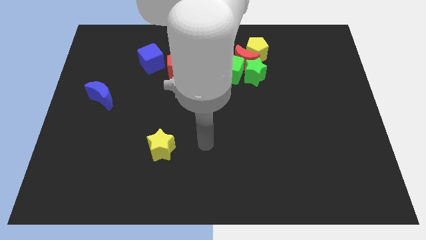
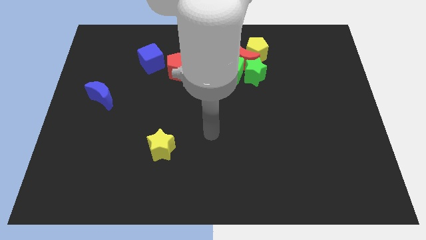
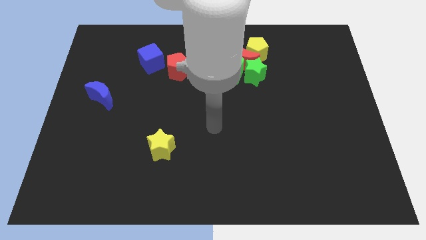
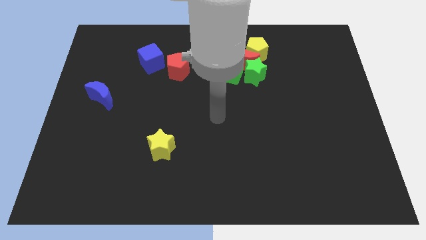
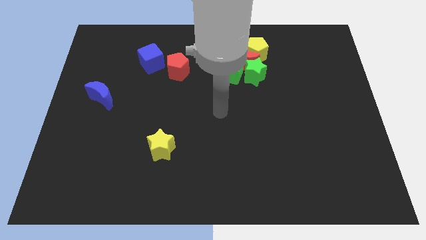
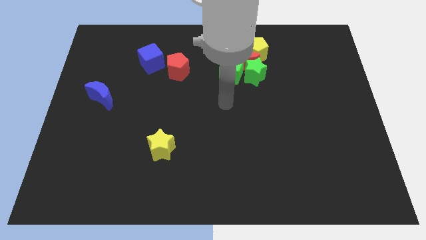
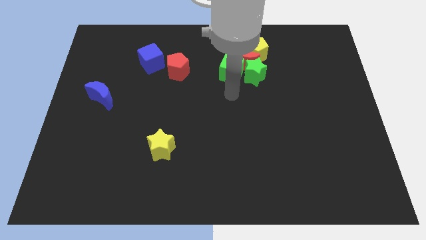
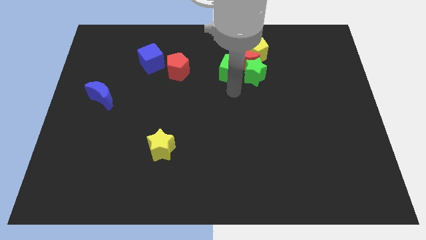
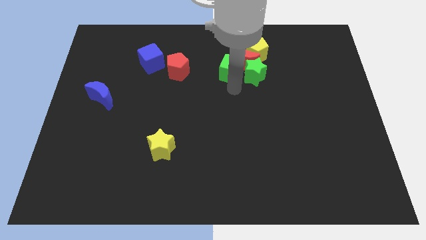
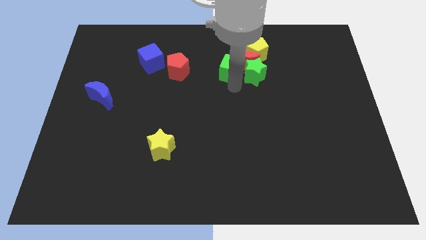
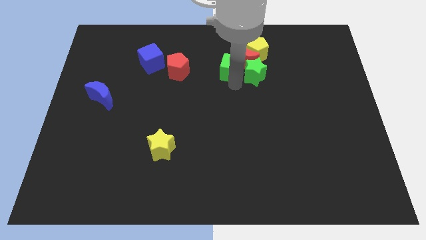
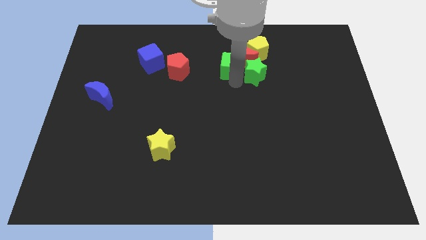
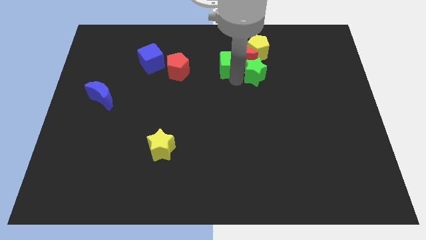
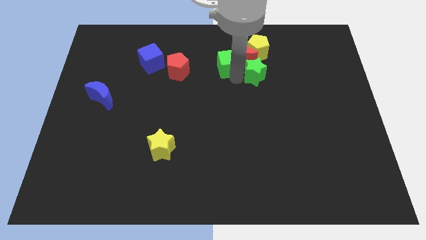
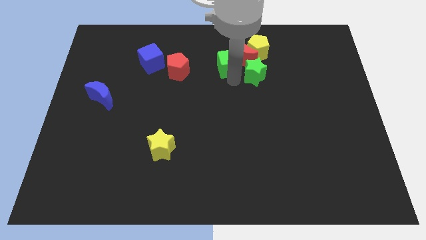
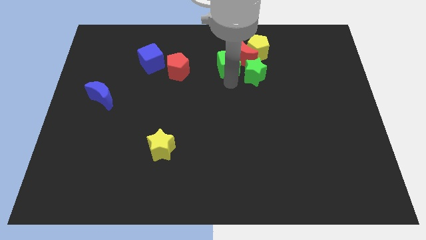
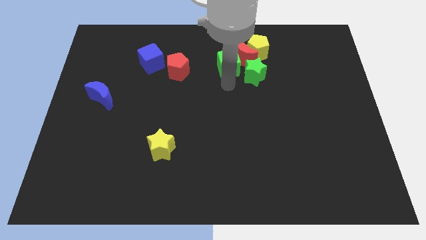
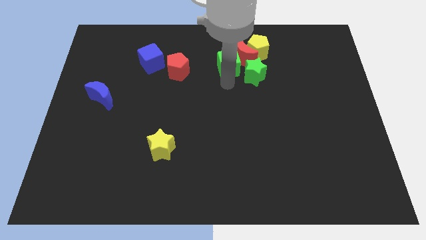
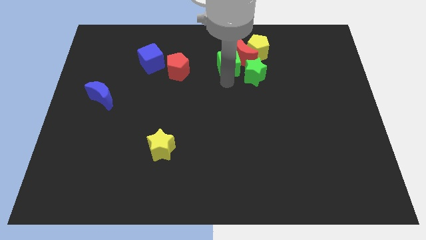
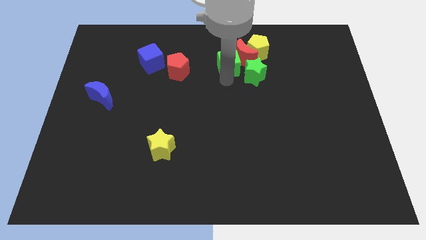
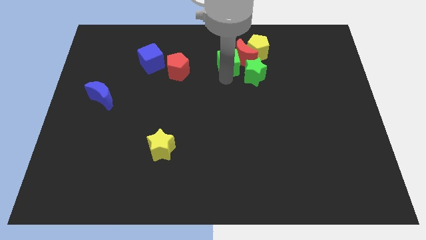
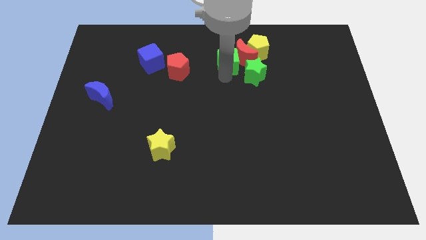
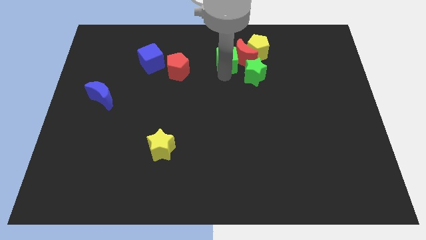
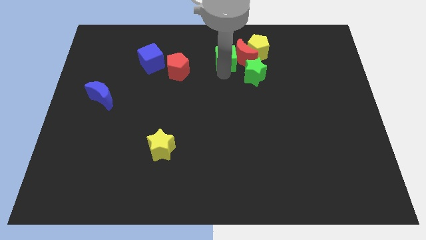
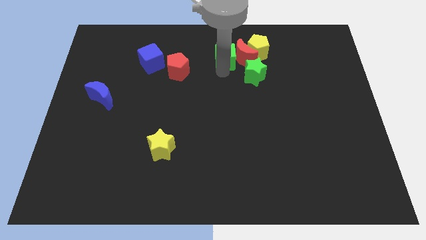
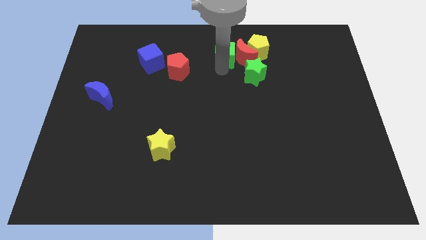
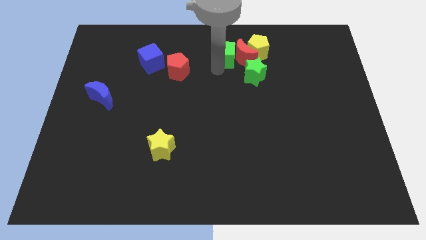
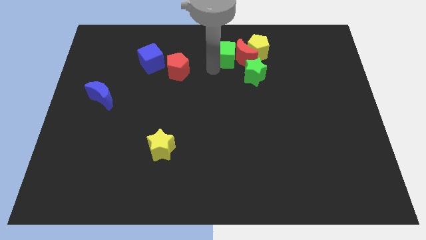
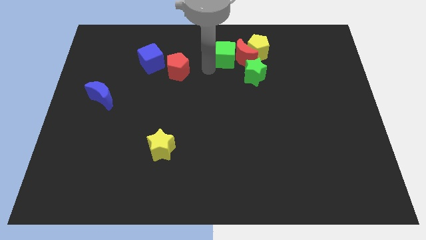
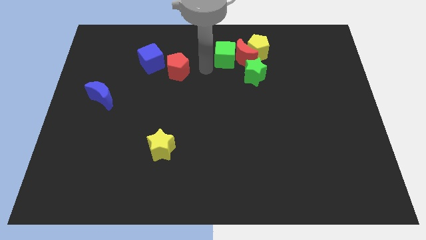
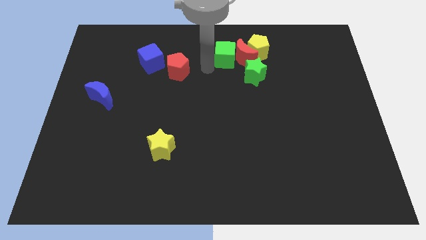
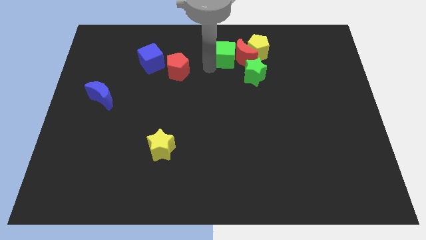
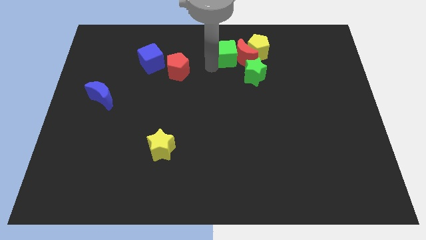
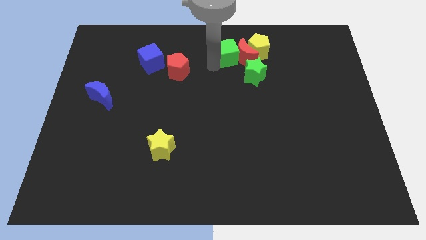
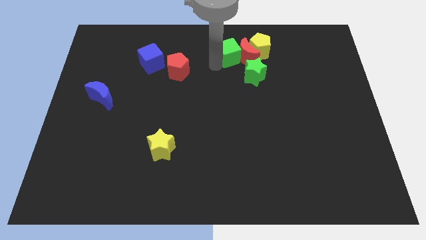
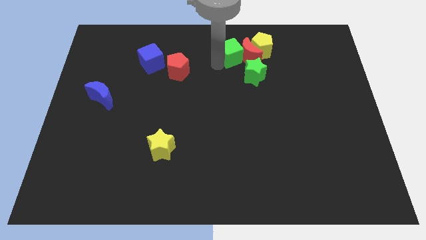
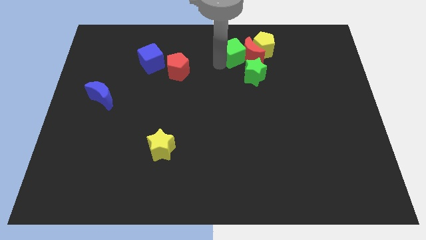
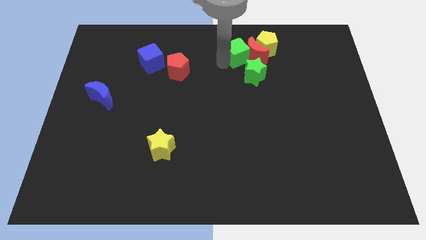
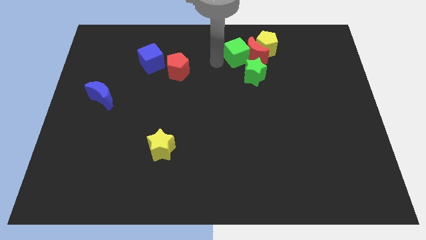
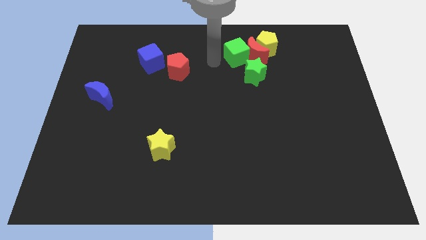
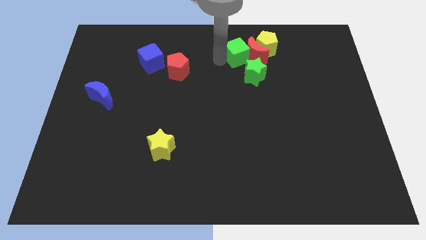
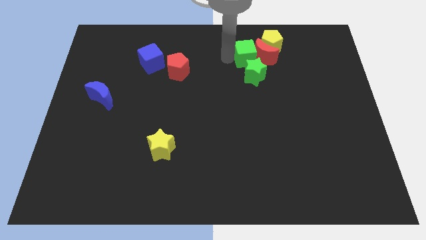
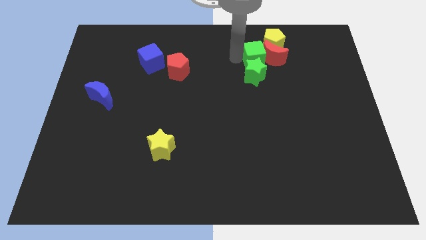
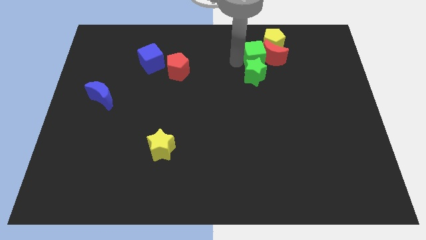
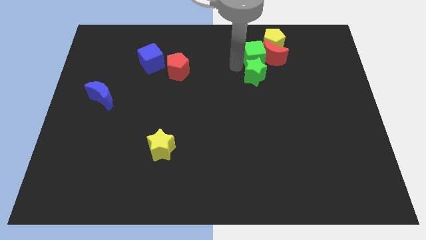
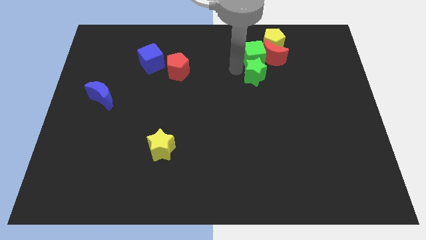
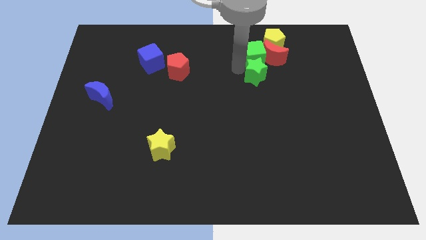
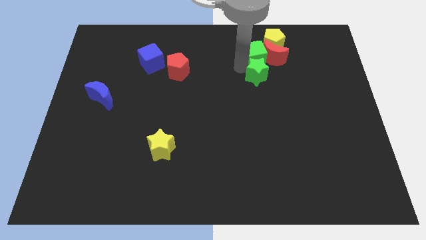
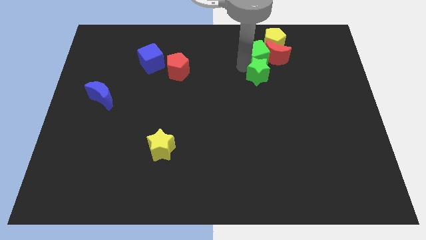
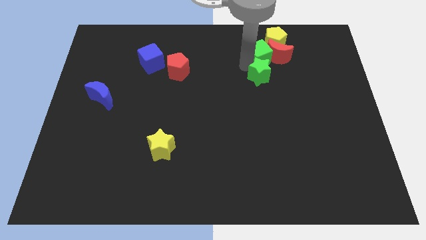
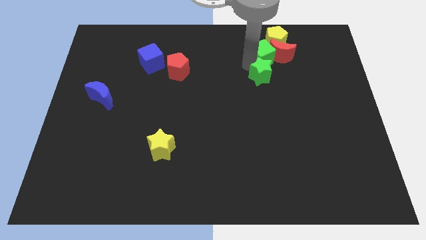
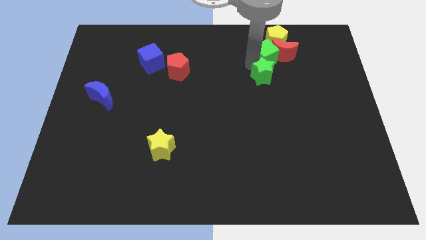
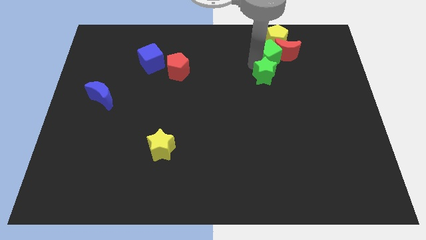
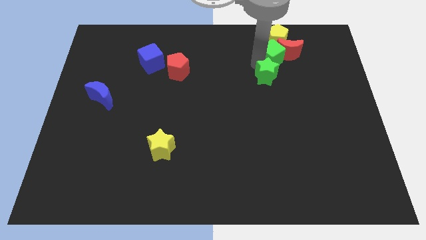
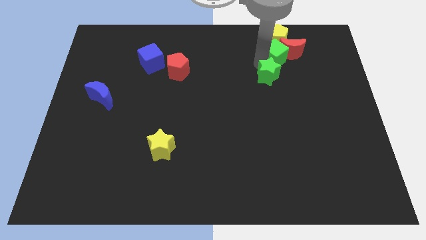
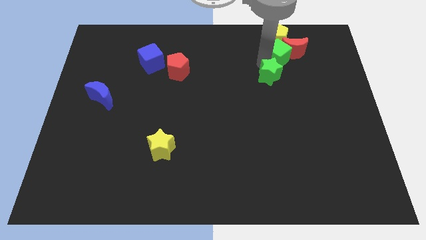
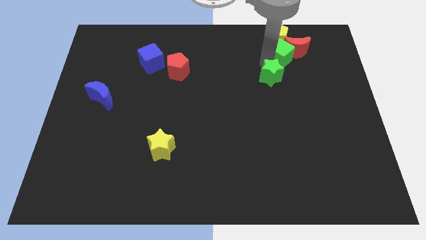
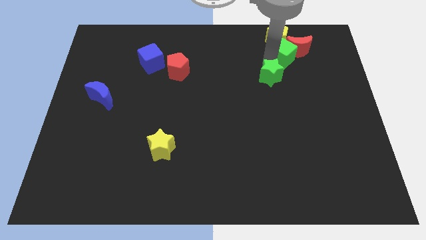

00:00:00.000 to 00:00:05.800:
put the green cube to the yellow pentagon

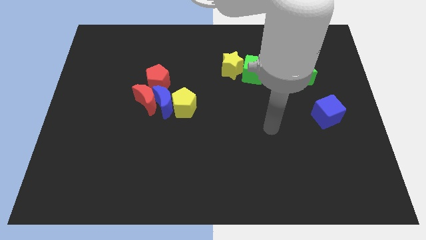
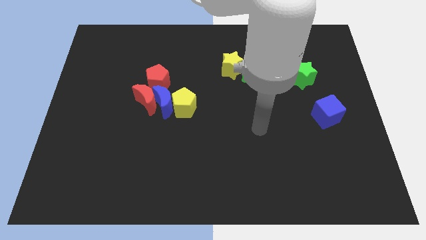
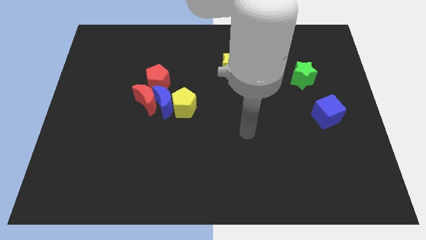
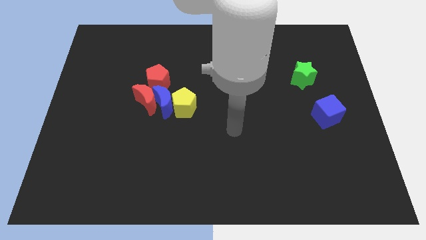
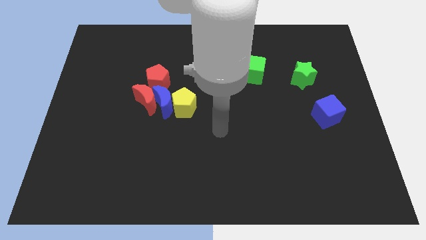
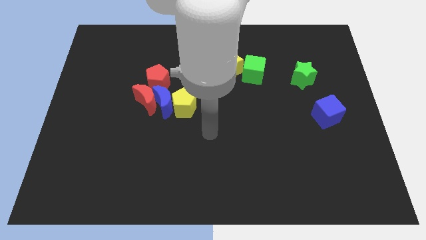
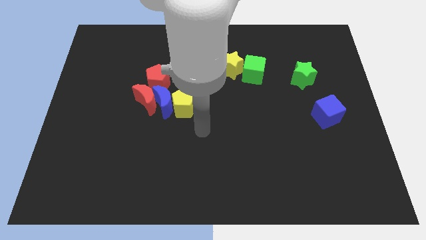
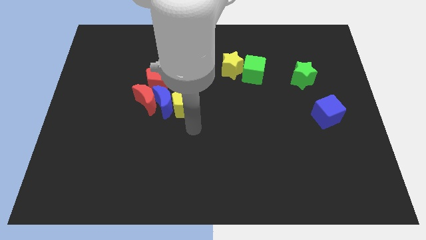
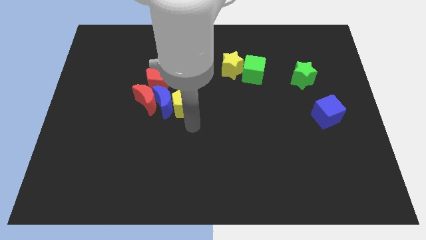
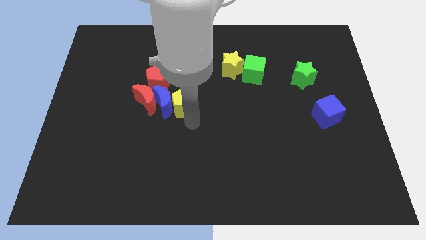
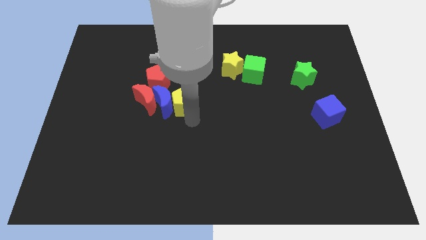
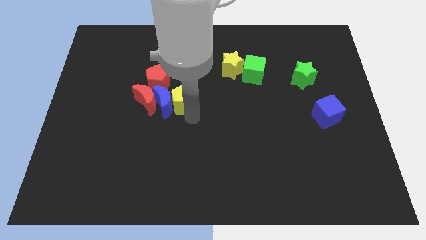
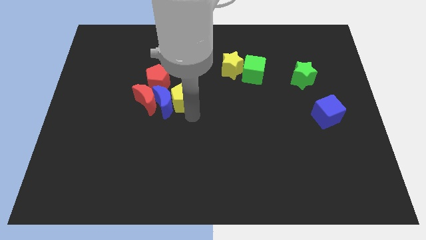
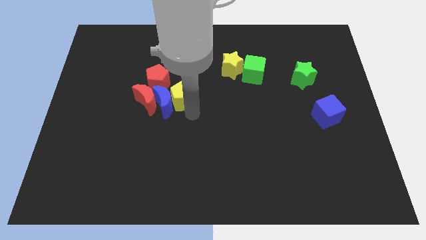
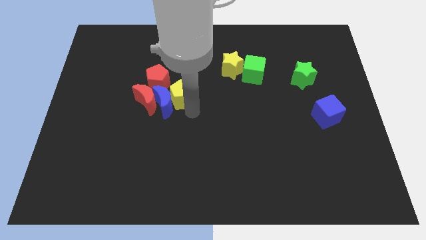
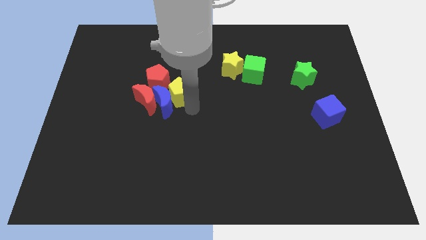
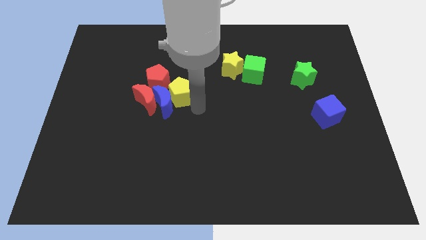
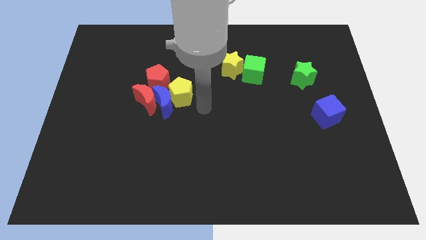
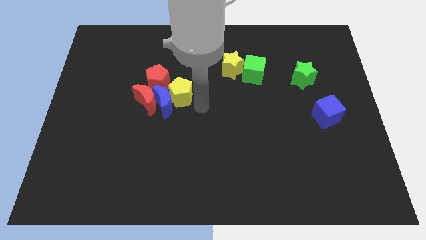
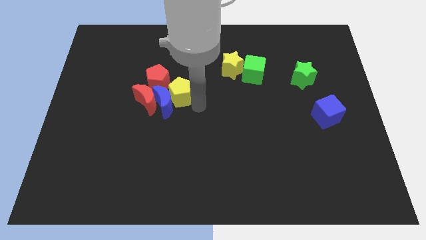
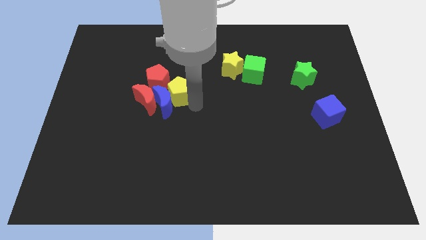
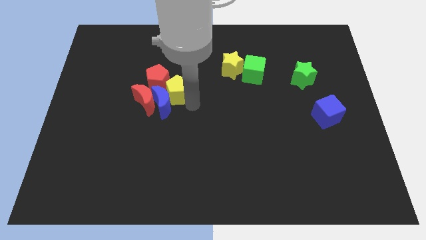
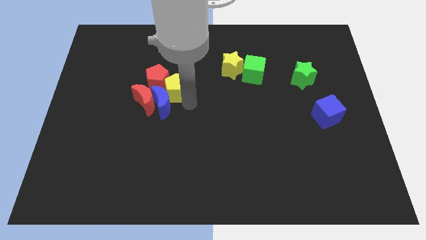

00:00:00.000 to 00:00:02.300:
move the yellow pentagon to the red pentagon
